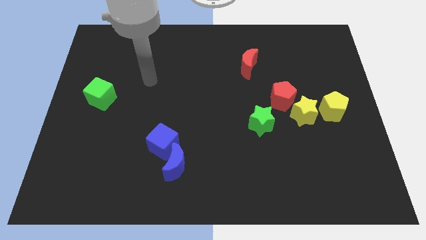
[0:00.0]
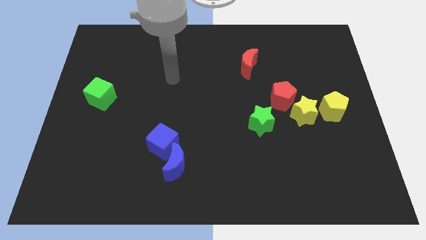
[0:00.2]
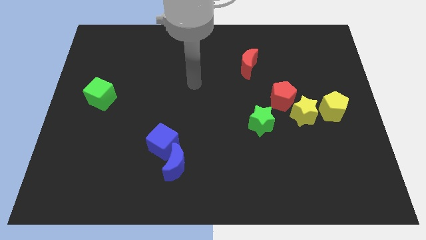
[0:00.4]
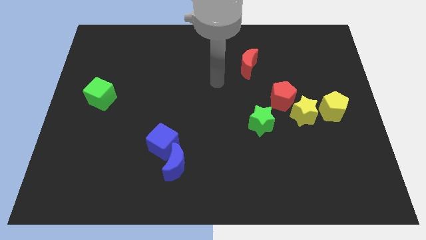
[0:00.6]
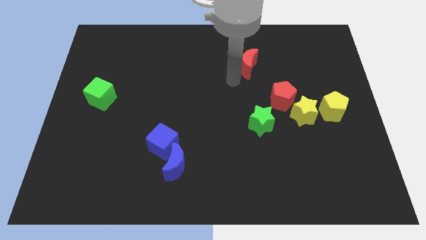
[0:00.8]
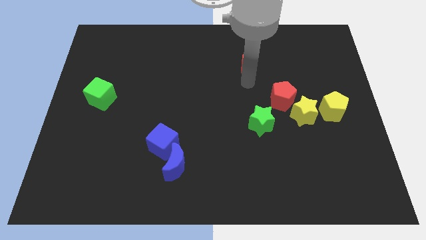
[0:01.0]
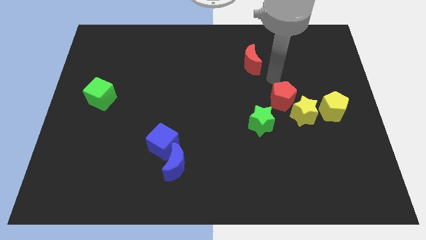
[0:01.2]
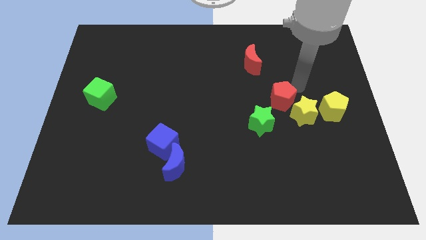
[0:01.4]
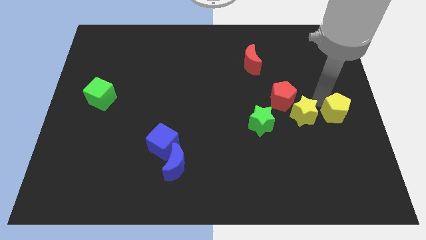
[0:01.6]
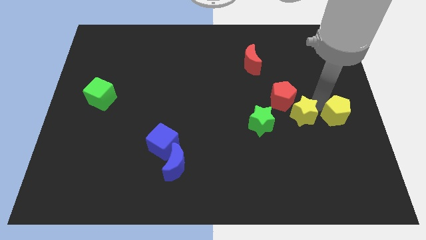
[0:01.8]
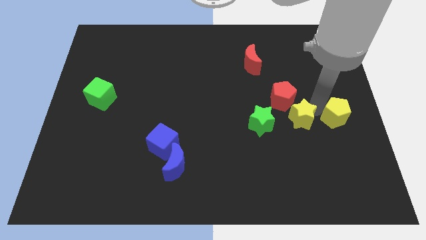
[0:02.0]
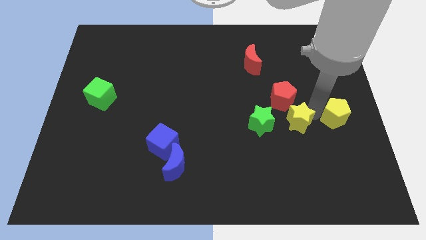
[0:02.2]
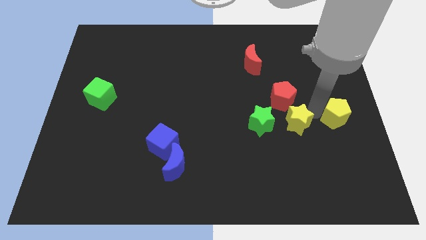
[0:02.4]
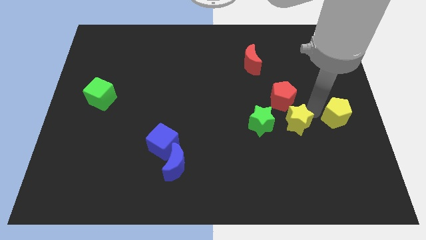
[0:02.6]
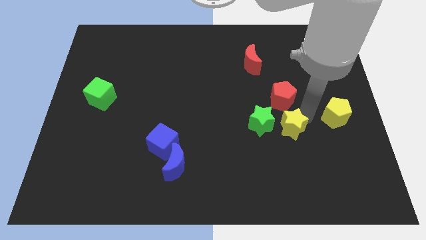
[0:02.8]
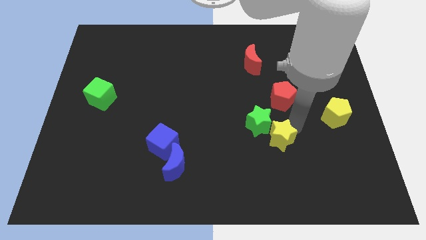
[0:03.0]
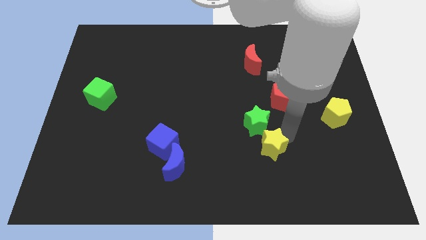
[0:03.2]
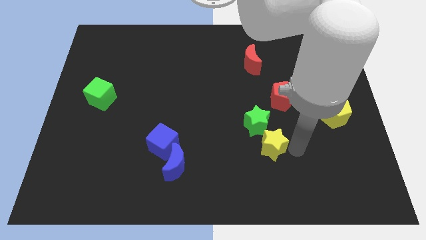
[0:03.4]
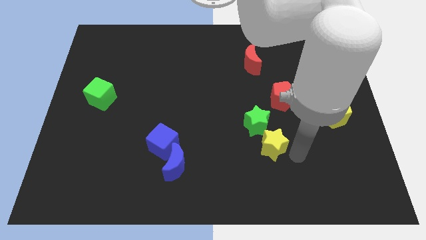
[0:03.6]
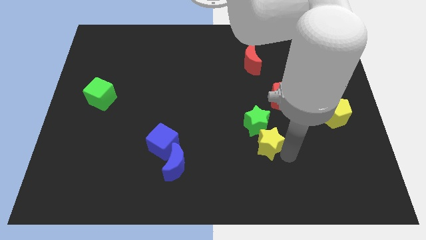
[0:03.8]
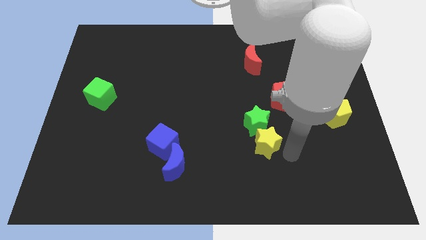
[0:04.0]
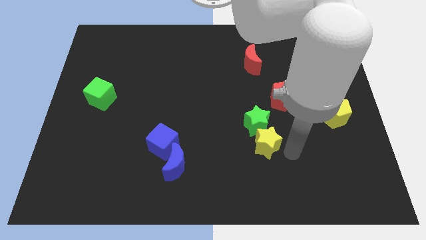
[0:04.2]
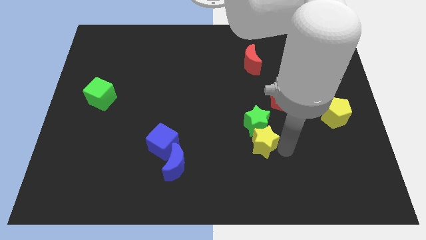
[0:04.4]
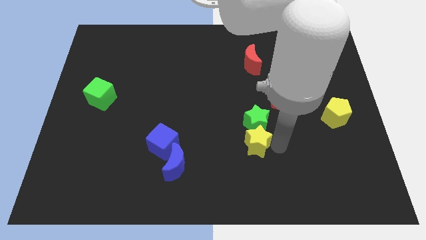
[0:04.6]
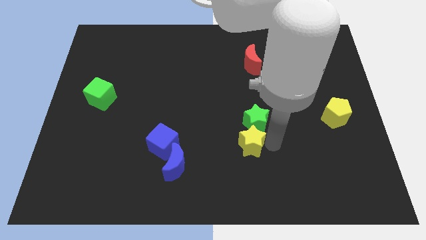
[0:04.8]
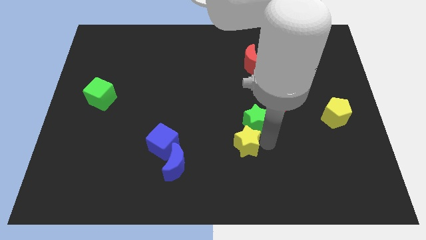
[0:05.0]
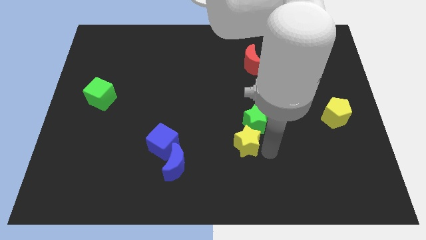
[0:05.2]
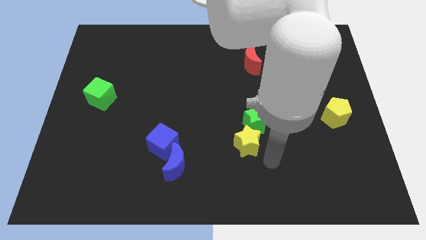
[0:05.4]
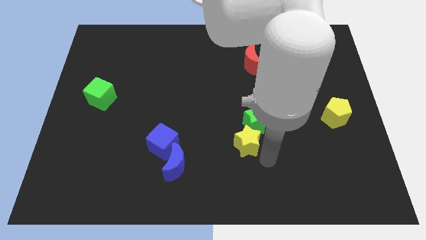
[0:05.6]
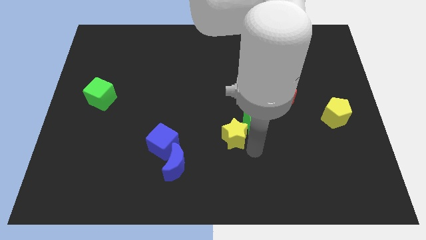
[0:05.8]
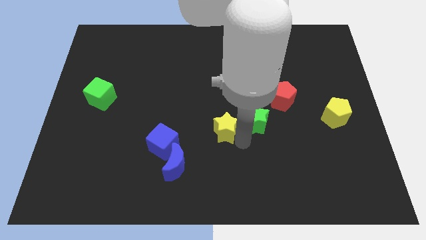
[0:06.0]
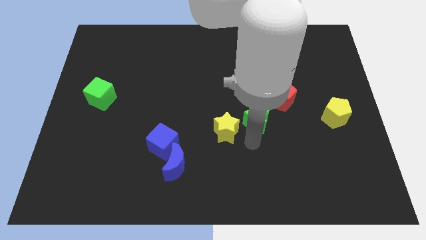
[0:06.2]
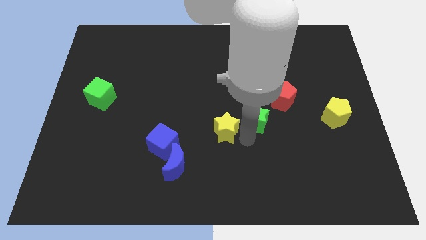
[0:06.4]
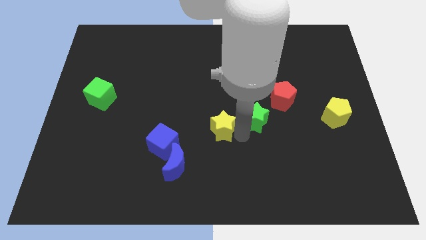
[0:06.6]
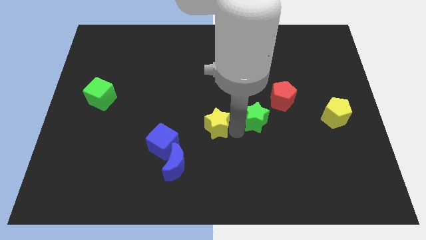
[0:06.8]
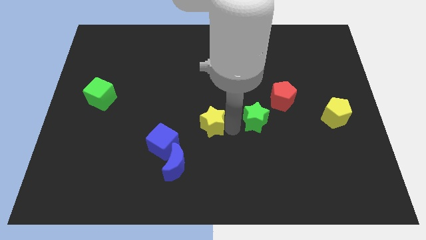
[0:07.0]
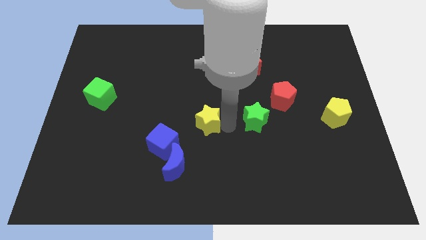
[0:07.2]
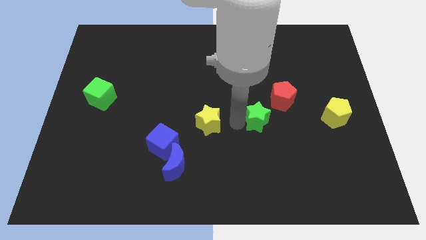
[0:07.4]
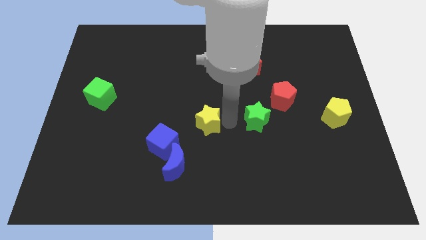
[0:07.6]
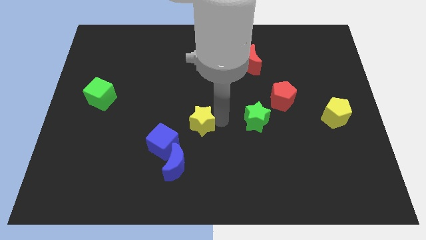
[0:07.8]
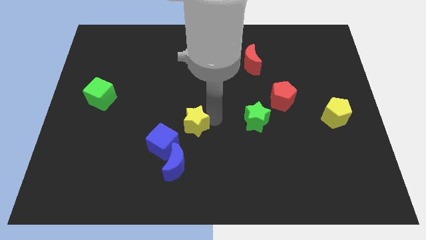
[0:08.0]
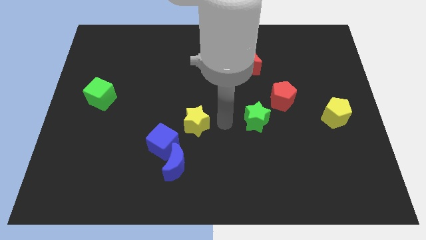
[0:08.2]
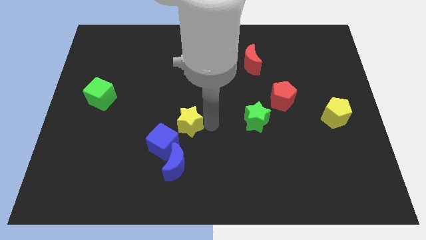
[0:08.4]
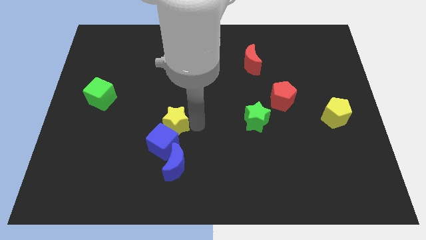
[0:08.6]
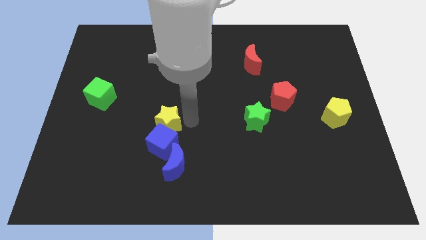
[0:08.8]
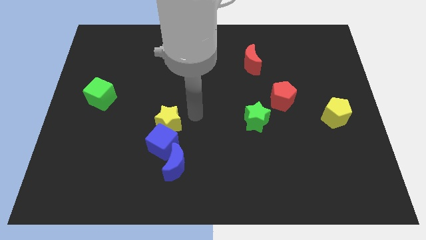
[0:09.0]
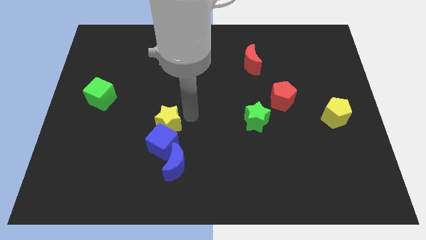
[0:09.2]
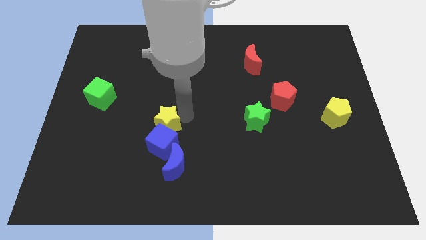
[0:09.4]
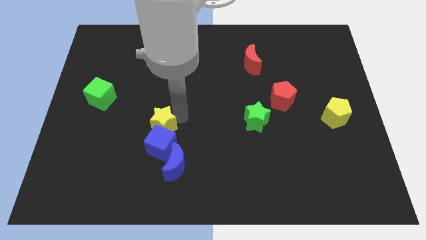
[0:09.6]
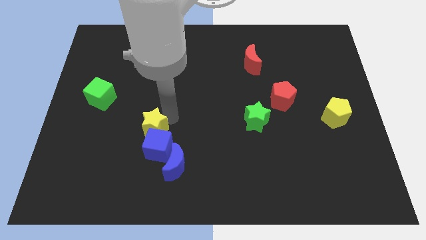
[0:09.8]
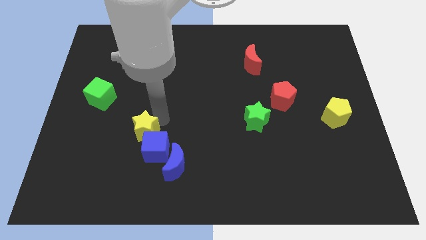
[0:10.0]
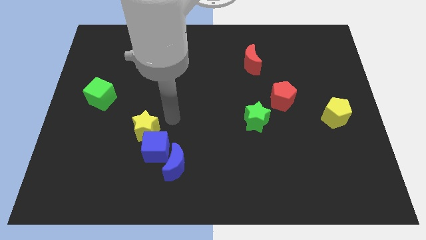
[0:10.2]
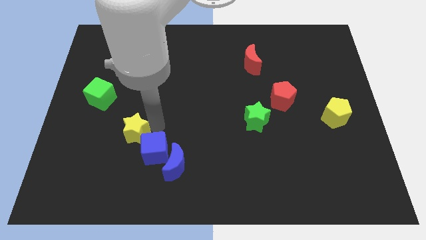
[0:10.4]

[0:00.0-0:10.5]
push the yellow star to the left of the blue cube

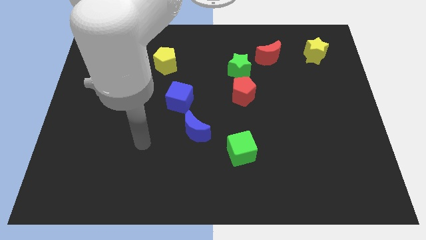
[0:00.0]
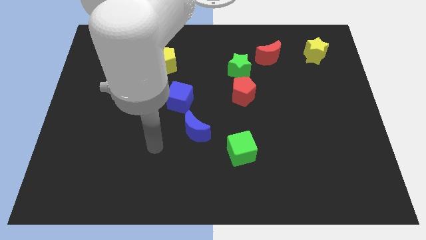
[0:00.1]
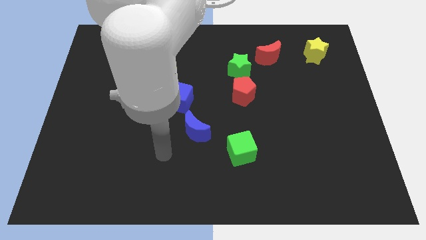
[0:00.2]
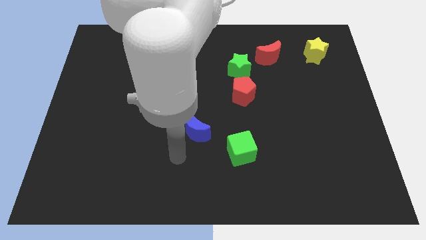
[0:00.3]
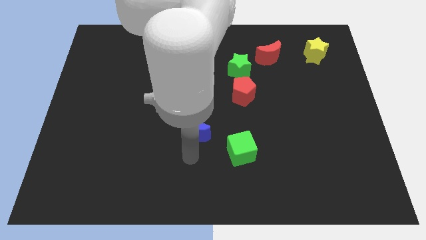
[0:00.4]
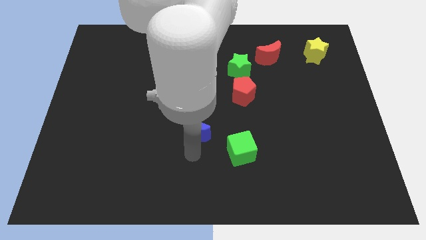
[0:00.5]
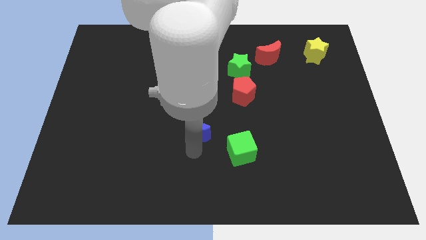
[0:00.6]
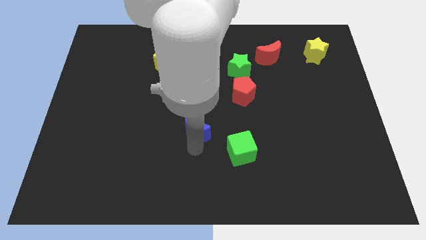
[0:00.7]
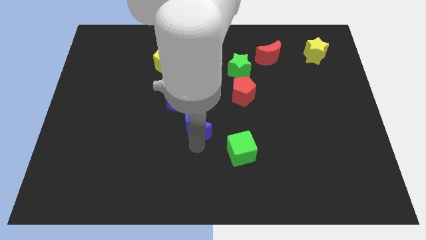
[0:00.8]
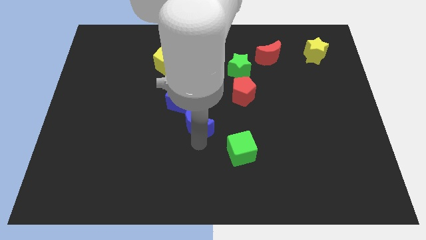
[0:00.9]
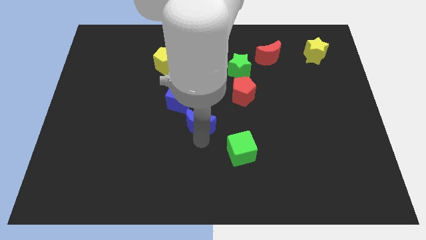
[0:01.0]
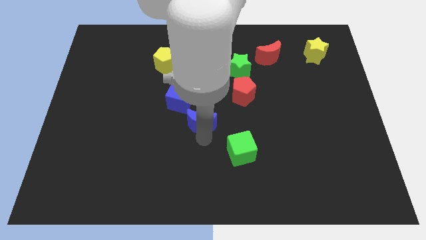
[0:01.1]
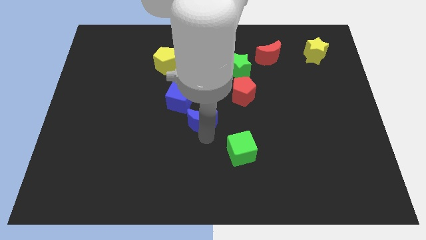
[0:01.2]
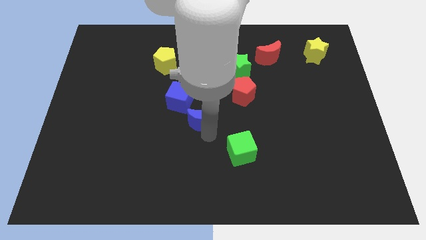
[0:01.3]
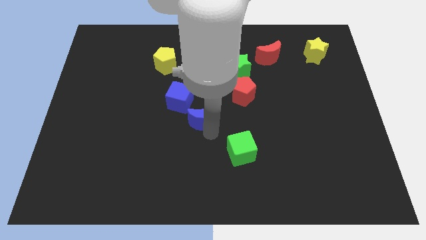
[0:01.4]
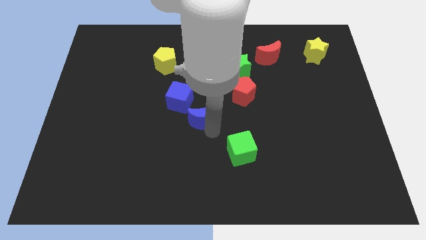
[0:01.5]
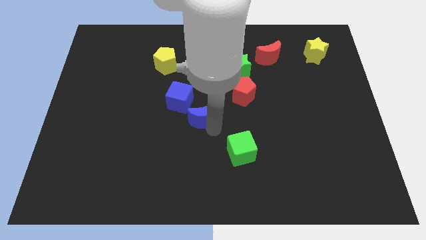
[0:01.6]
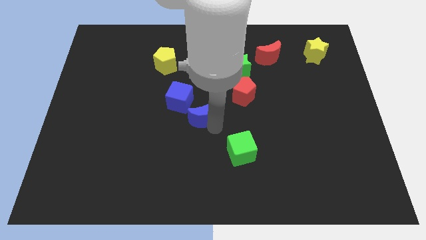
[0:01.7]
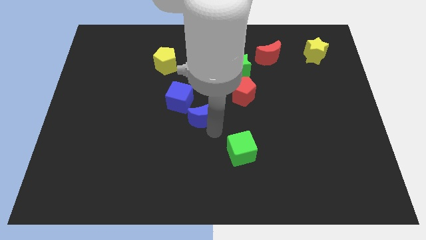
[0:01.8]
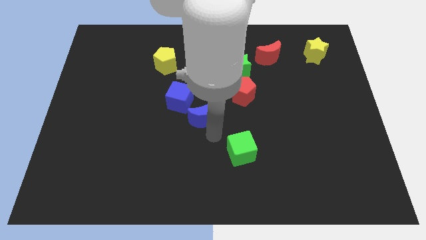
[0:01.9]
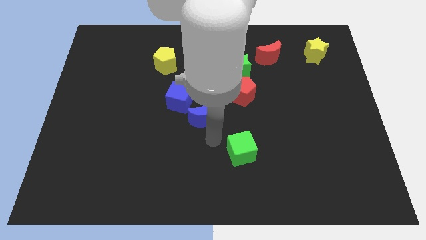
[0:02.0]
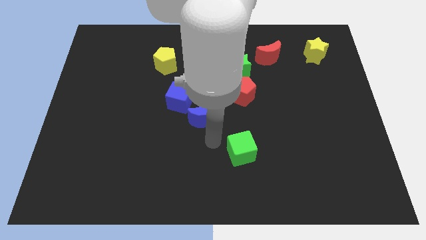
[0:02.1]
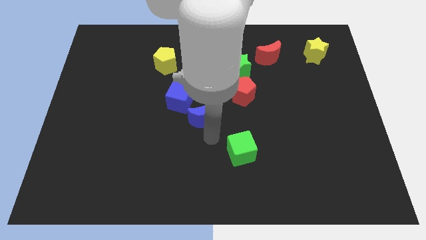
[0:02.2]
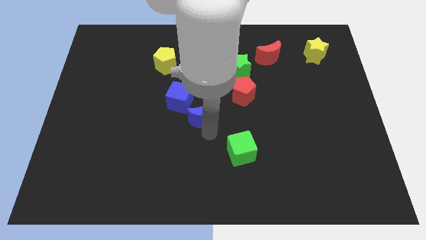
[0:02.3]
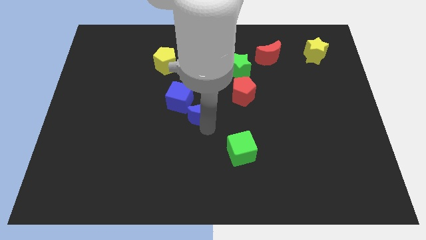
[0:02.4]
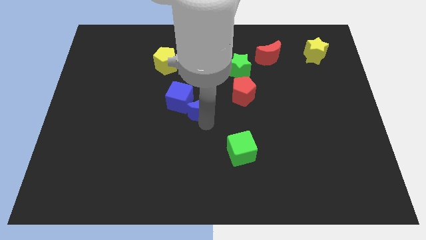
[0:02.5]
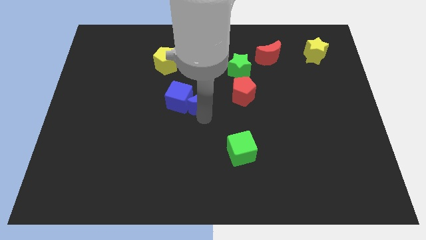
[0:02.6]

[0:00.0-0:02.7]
move the blue moon to the left side of the red pentagon
